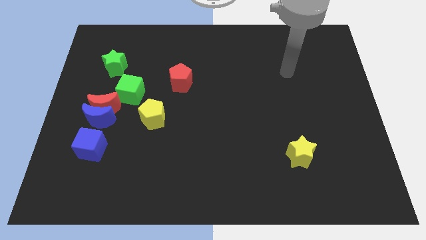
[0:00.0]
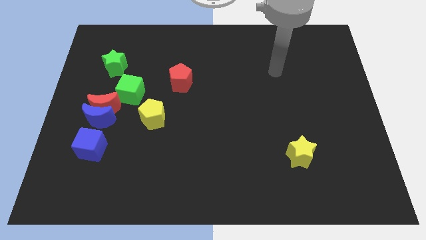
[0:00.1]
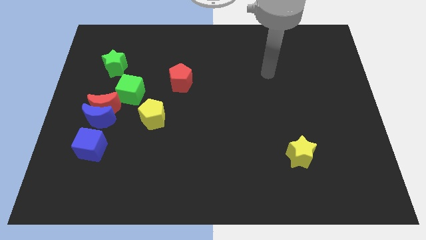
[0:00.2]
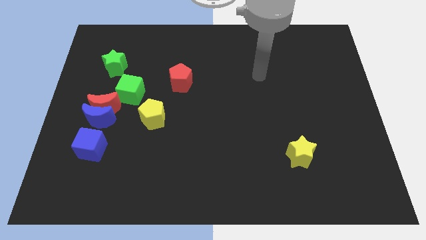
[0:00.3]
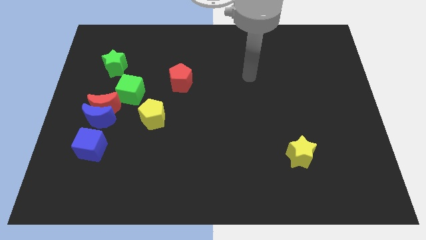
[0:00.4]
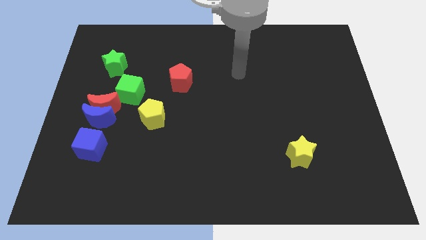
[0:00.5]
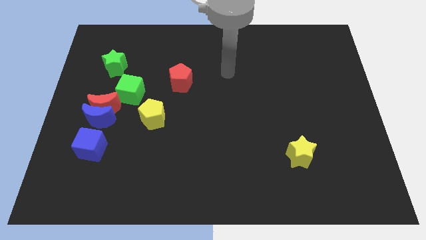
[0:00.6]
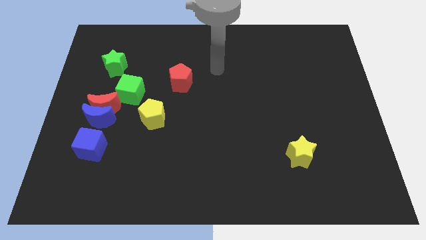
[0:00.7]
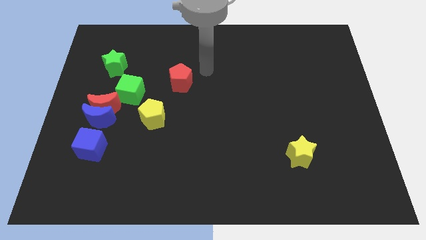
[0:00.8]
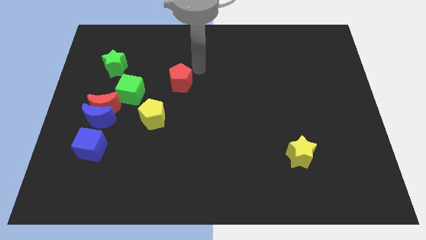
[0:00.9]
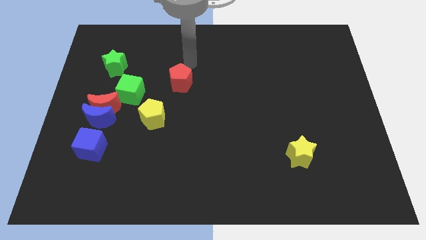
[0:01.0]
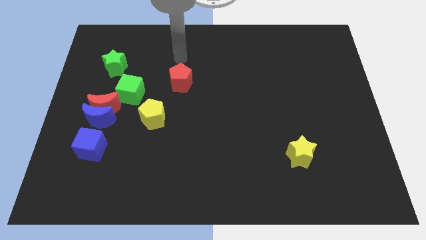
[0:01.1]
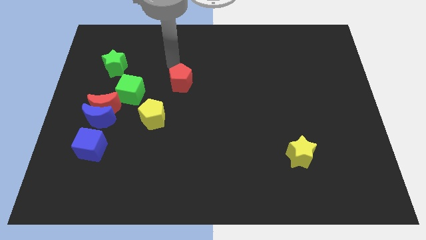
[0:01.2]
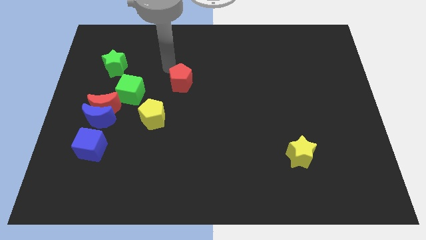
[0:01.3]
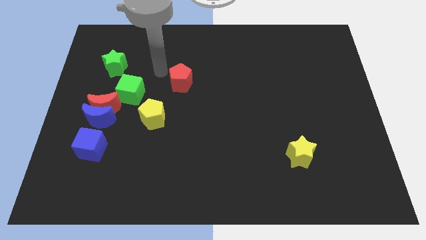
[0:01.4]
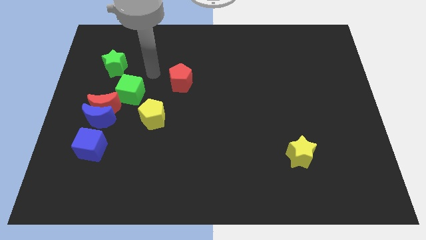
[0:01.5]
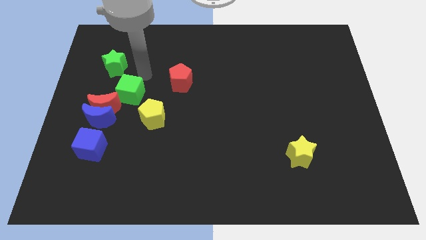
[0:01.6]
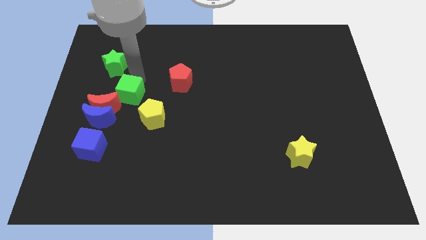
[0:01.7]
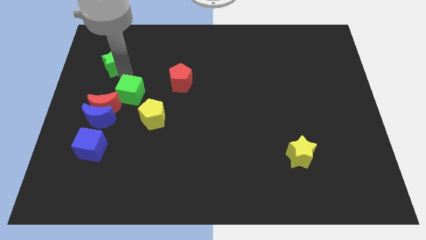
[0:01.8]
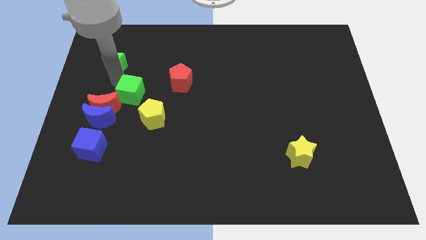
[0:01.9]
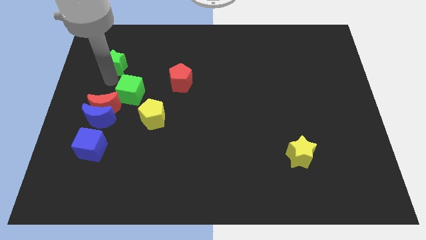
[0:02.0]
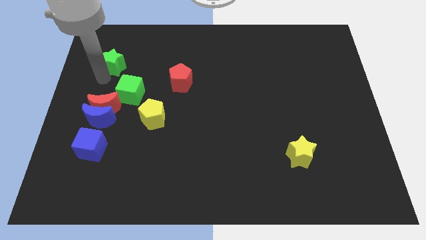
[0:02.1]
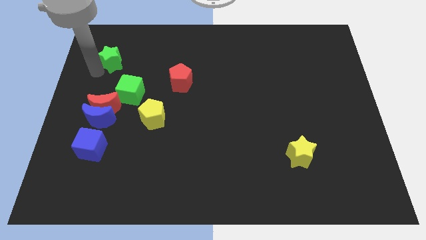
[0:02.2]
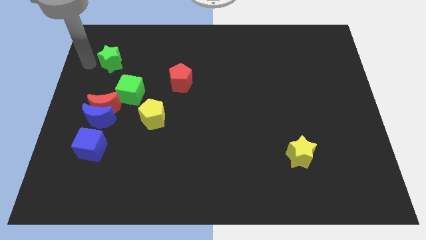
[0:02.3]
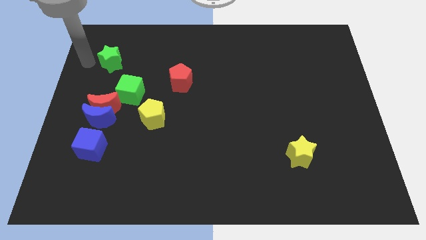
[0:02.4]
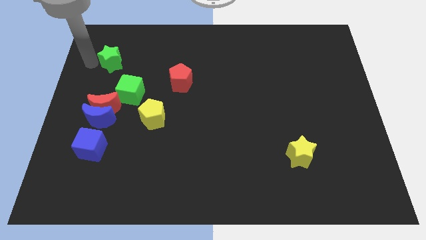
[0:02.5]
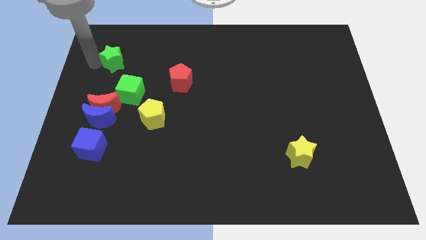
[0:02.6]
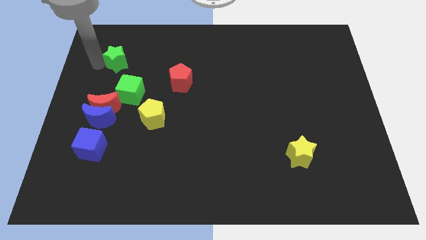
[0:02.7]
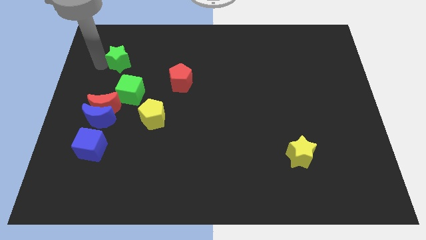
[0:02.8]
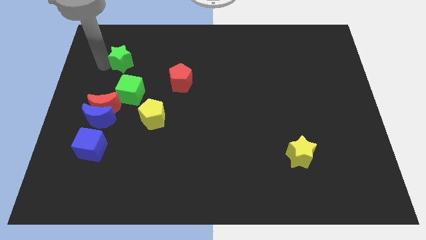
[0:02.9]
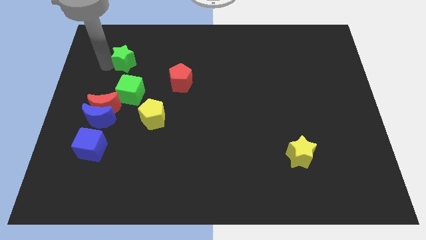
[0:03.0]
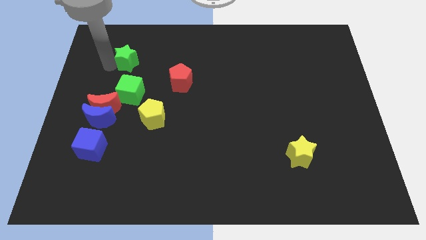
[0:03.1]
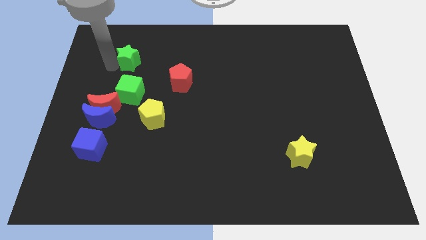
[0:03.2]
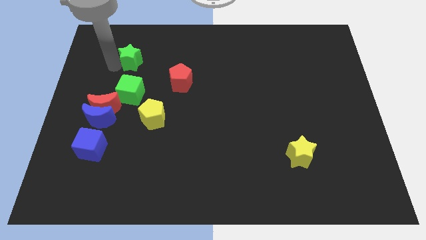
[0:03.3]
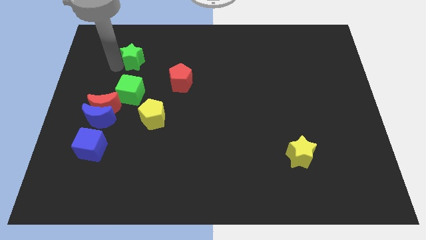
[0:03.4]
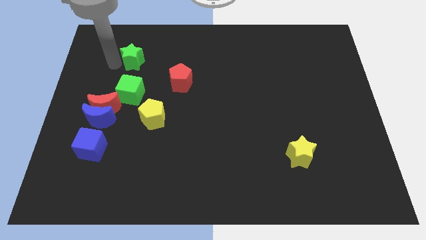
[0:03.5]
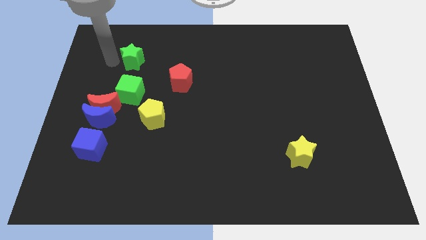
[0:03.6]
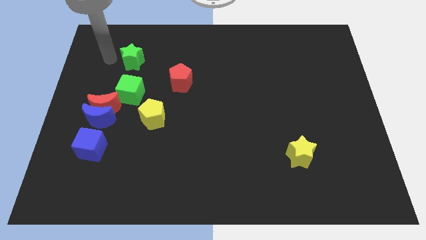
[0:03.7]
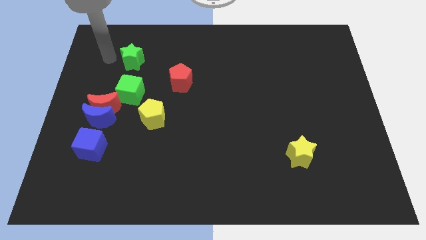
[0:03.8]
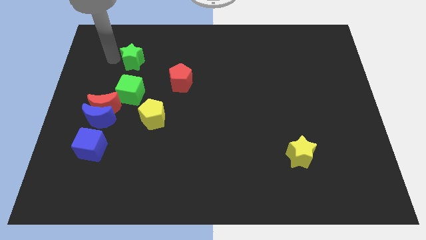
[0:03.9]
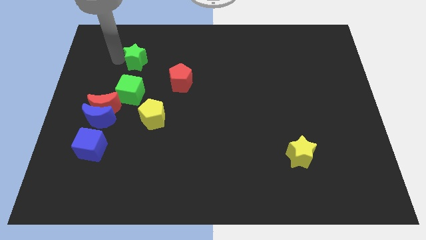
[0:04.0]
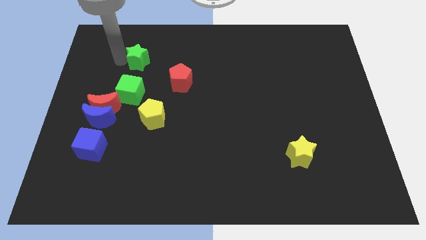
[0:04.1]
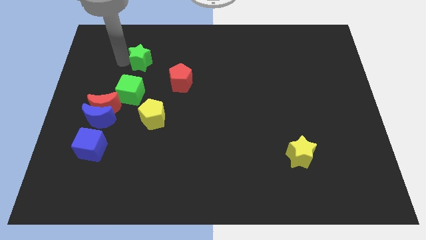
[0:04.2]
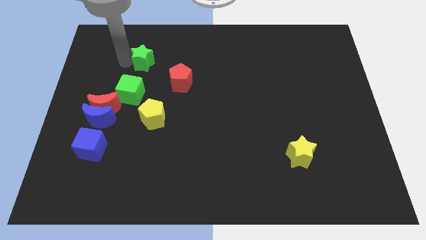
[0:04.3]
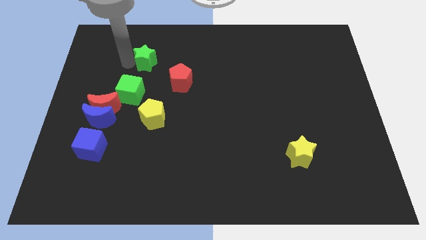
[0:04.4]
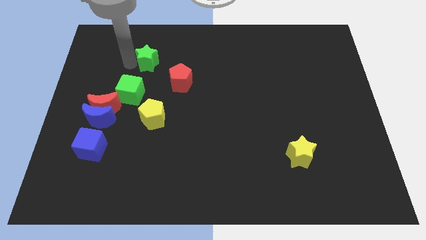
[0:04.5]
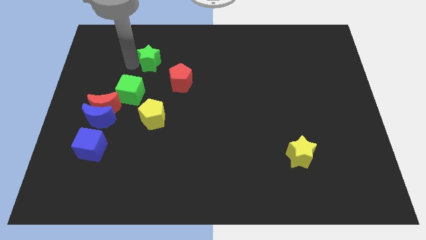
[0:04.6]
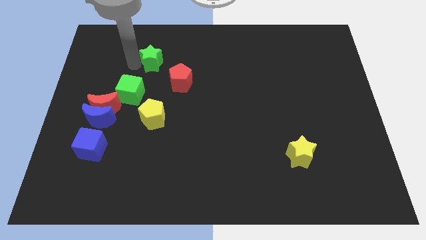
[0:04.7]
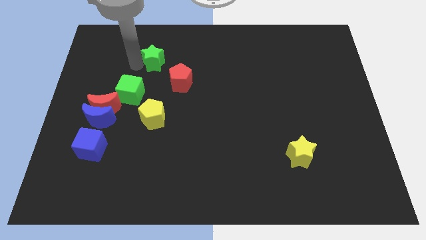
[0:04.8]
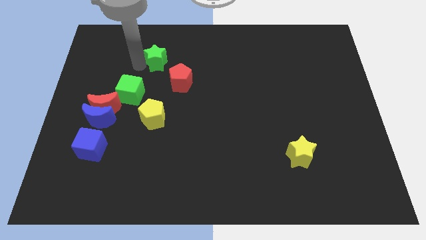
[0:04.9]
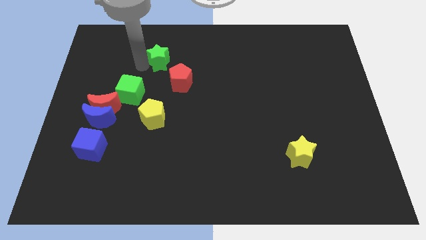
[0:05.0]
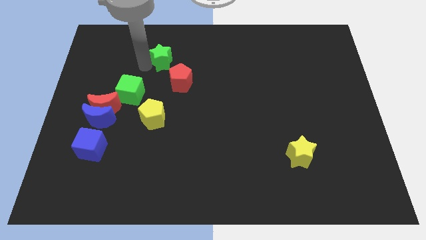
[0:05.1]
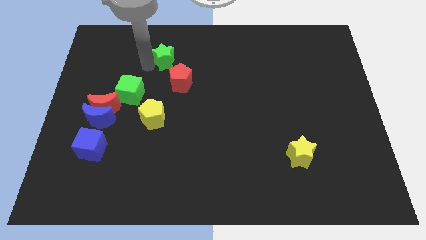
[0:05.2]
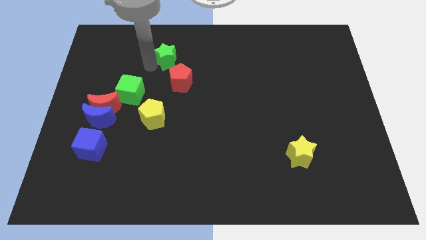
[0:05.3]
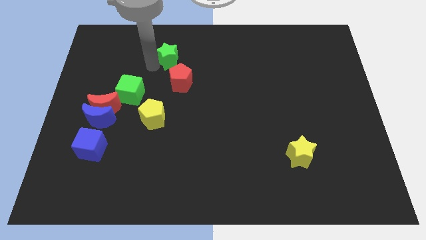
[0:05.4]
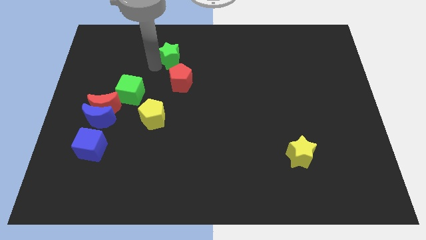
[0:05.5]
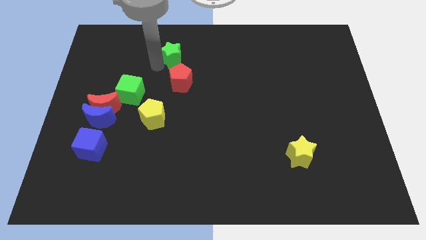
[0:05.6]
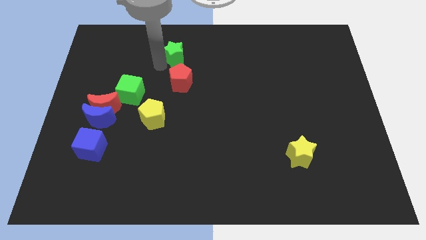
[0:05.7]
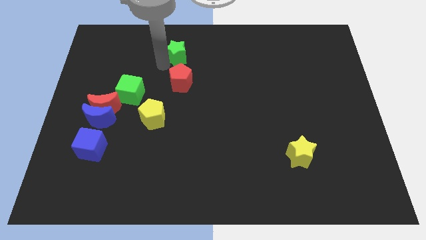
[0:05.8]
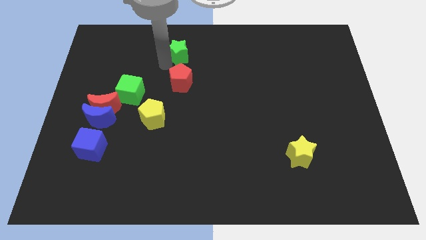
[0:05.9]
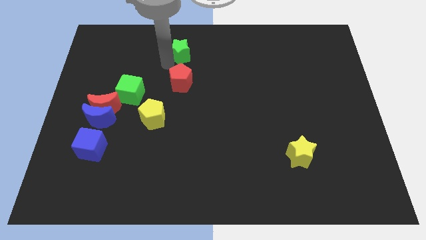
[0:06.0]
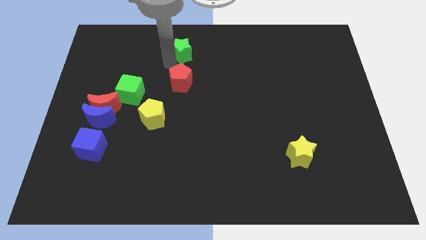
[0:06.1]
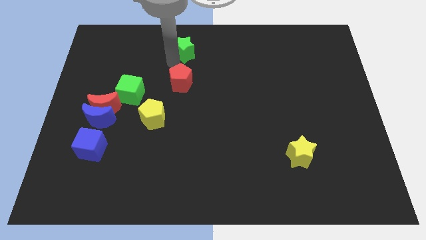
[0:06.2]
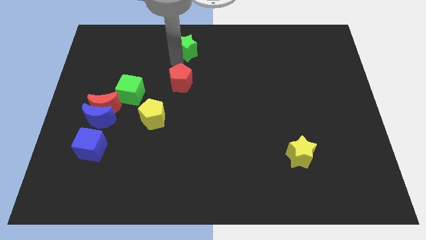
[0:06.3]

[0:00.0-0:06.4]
put the green star to the top

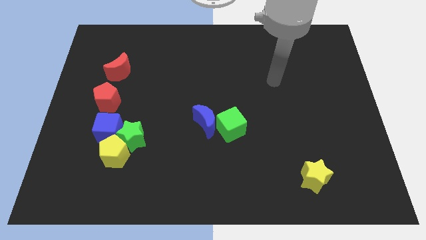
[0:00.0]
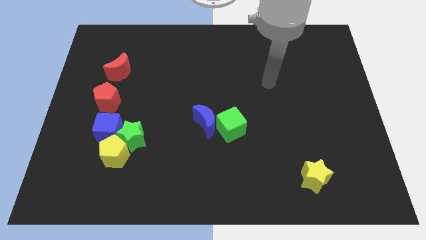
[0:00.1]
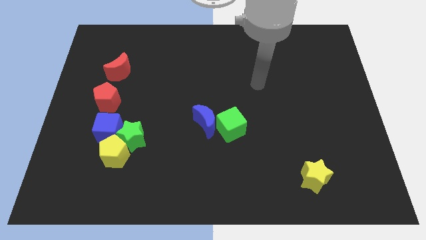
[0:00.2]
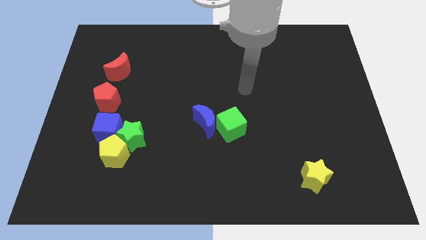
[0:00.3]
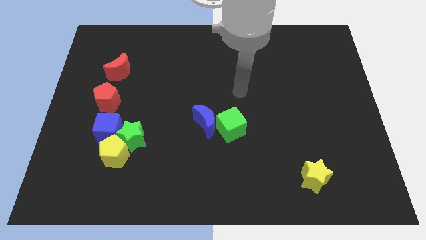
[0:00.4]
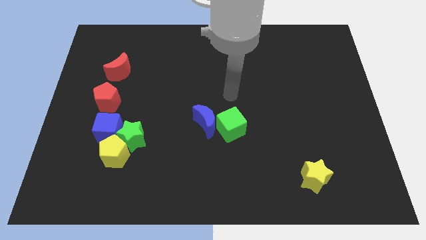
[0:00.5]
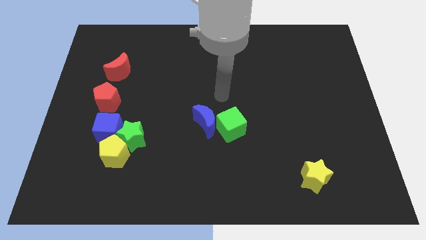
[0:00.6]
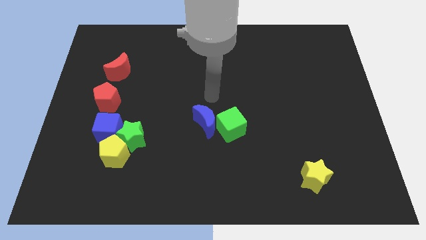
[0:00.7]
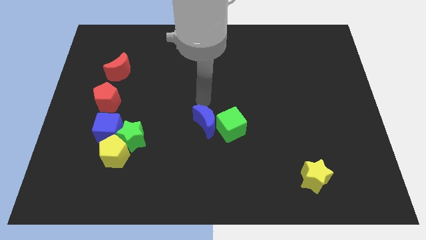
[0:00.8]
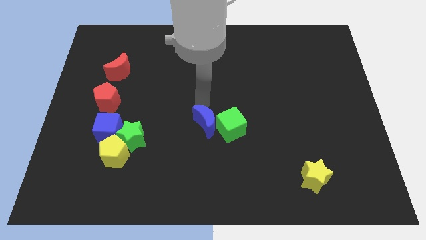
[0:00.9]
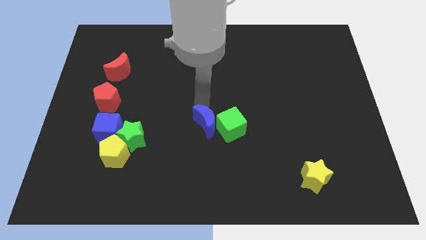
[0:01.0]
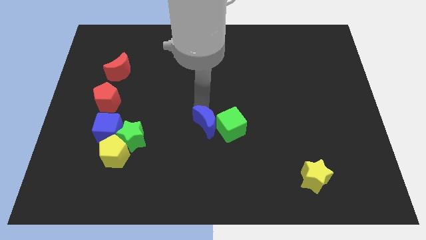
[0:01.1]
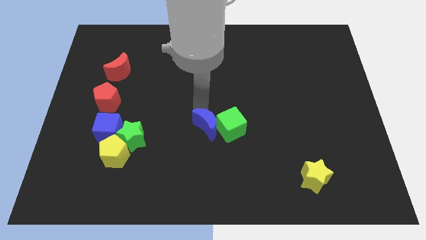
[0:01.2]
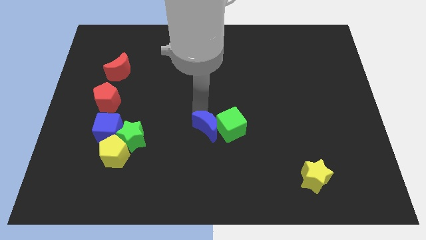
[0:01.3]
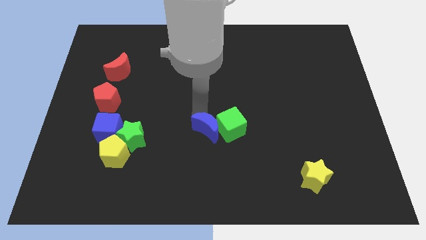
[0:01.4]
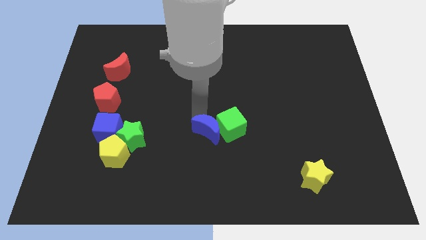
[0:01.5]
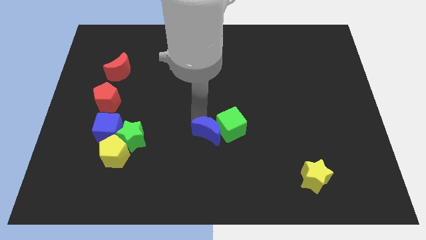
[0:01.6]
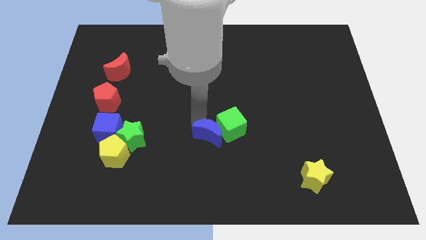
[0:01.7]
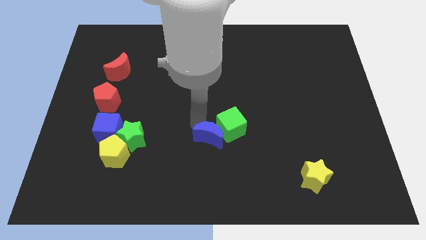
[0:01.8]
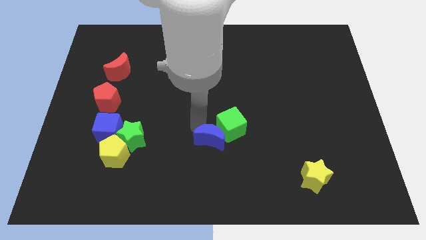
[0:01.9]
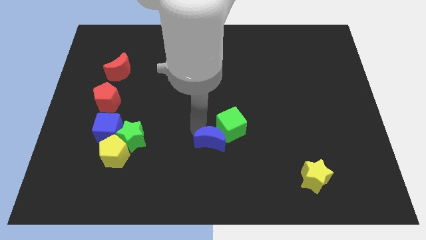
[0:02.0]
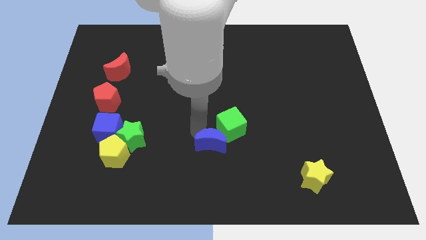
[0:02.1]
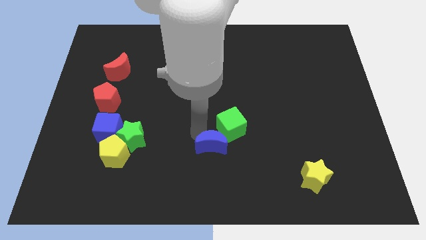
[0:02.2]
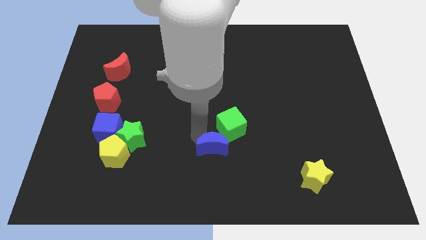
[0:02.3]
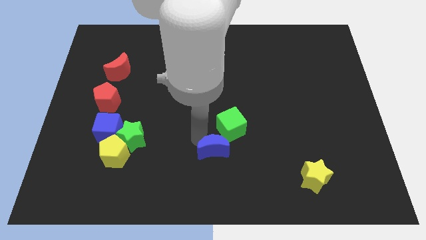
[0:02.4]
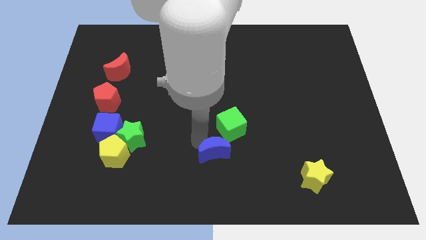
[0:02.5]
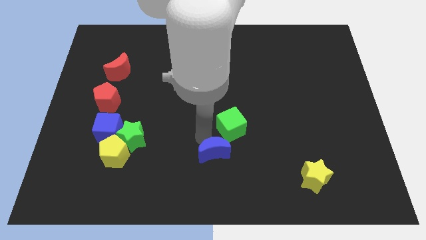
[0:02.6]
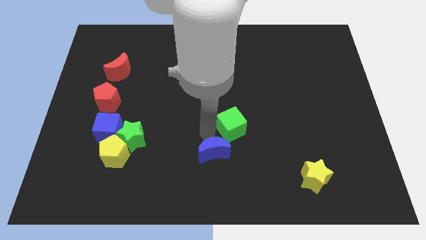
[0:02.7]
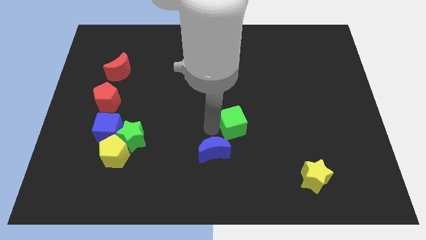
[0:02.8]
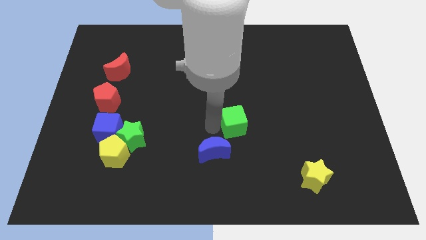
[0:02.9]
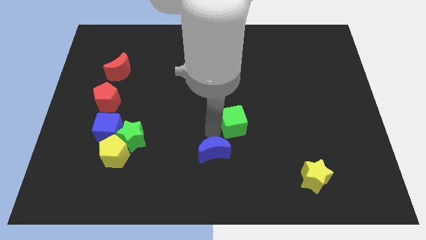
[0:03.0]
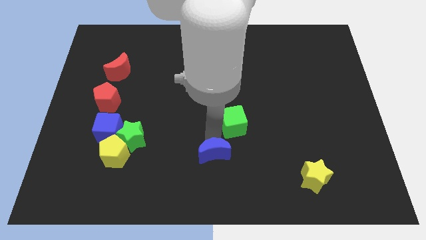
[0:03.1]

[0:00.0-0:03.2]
put the blue moon to the bottom
